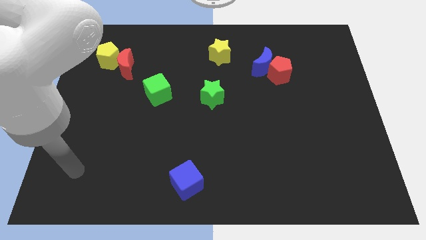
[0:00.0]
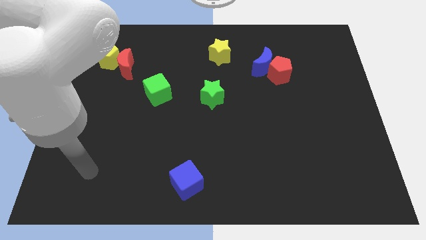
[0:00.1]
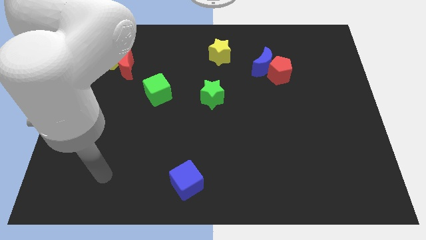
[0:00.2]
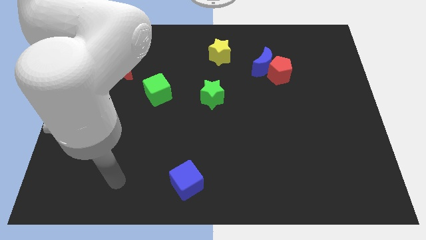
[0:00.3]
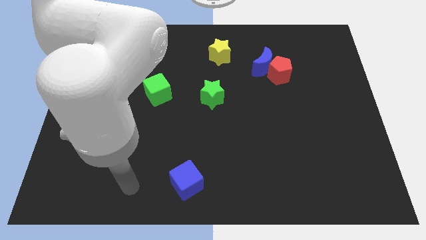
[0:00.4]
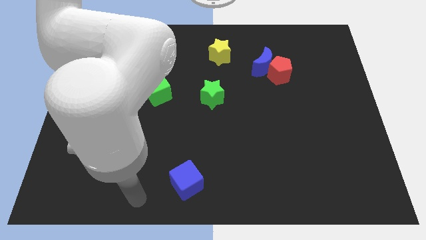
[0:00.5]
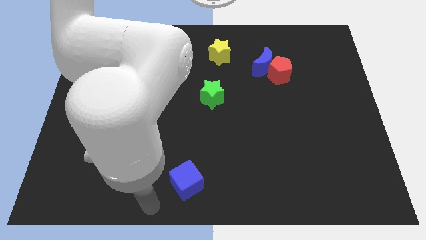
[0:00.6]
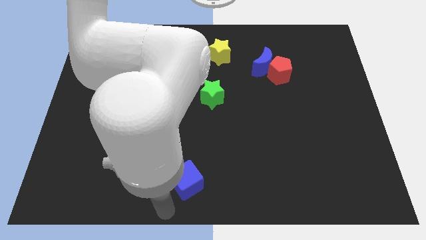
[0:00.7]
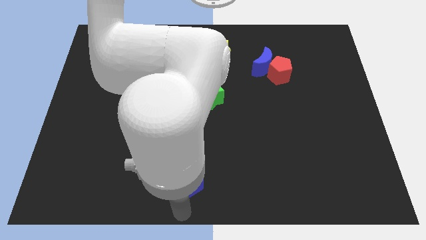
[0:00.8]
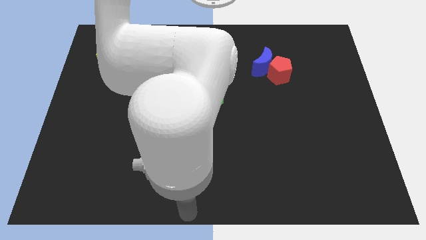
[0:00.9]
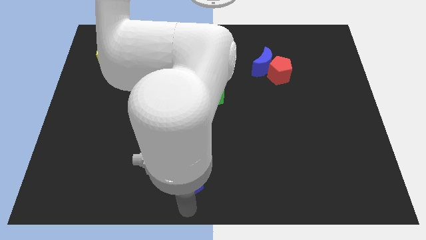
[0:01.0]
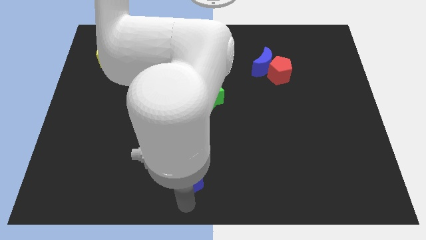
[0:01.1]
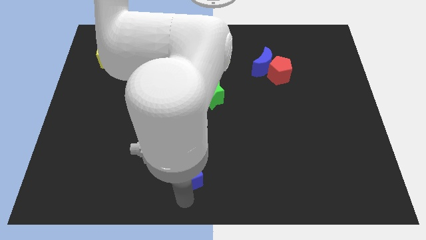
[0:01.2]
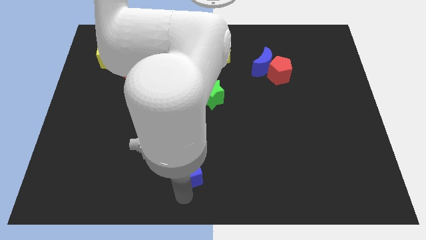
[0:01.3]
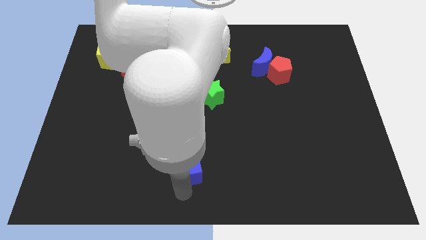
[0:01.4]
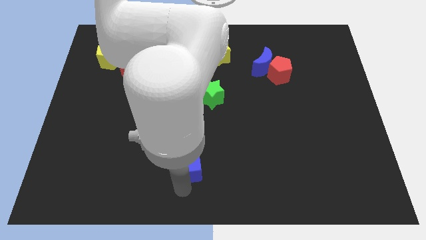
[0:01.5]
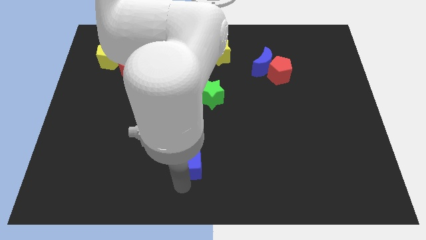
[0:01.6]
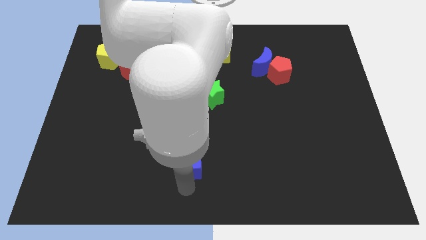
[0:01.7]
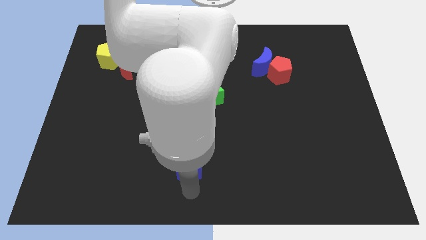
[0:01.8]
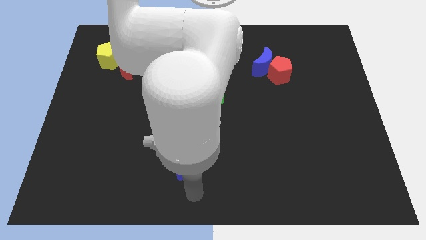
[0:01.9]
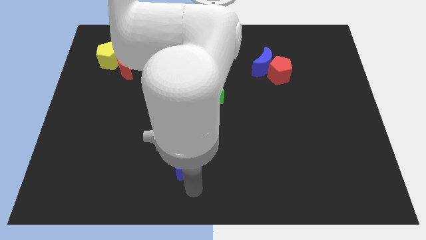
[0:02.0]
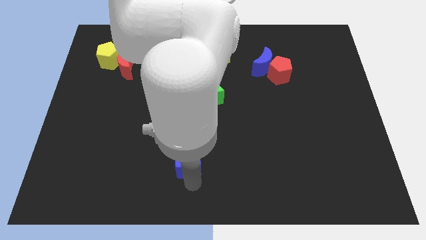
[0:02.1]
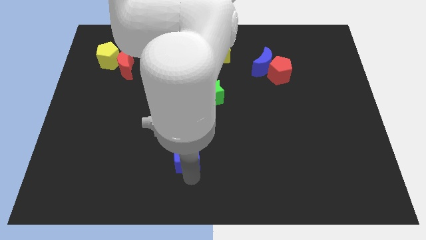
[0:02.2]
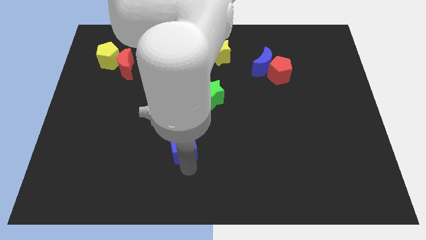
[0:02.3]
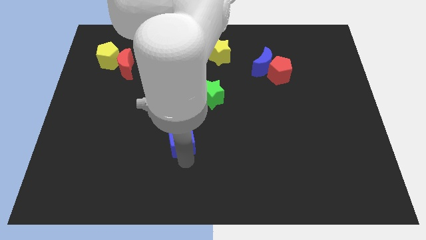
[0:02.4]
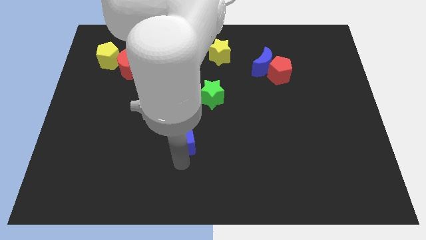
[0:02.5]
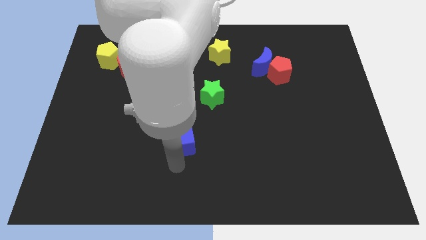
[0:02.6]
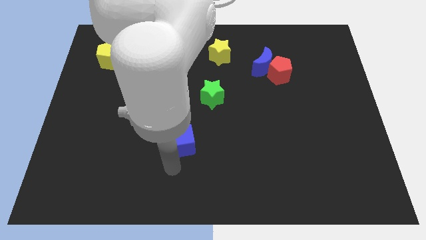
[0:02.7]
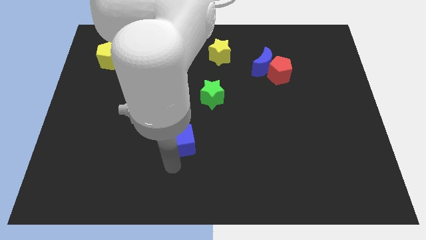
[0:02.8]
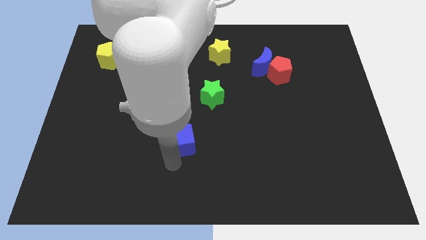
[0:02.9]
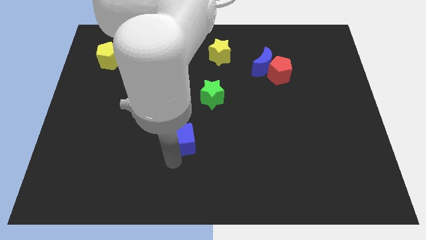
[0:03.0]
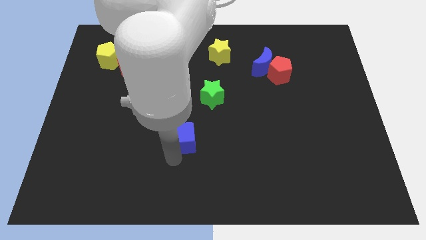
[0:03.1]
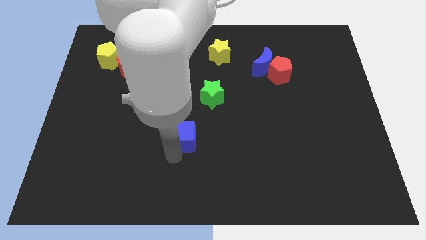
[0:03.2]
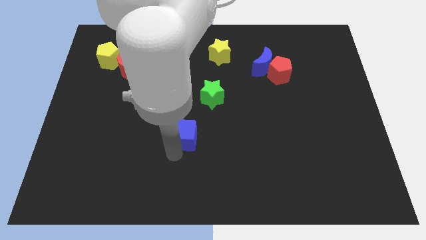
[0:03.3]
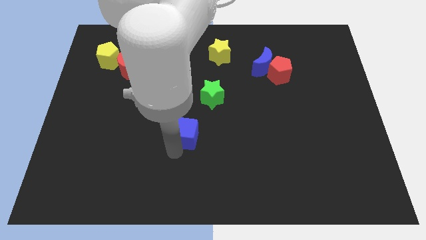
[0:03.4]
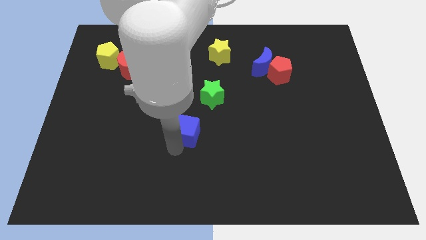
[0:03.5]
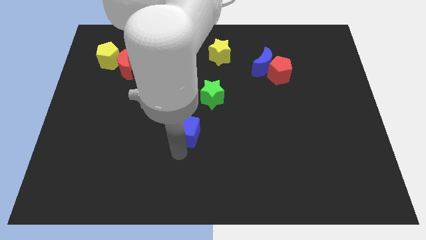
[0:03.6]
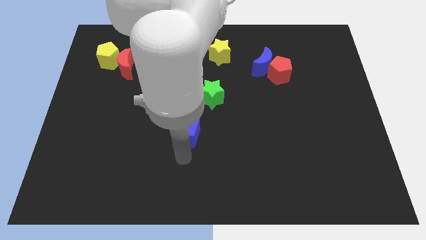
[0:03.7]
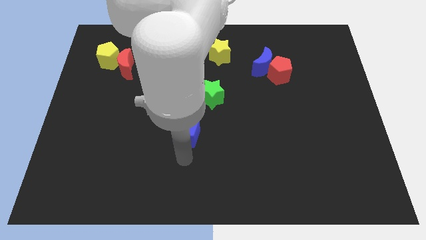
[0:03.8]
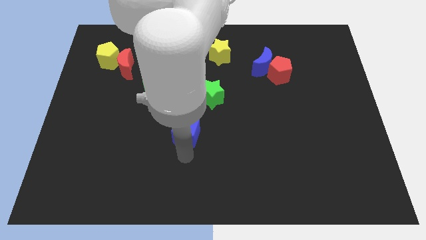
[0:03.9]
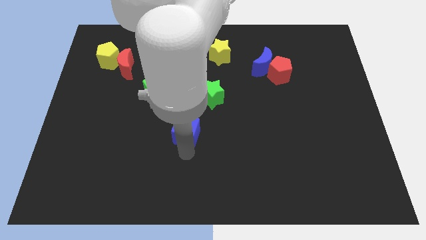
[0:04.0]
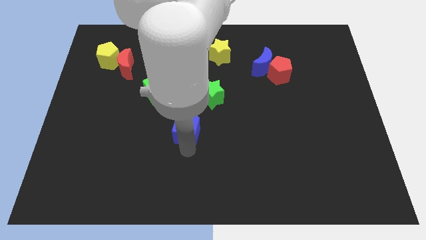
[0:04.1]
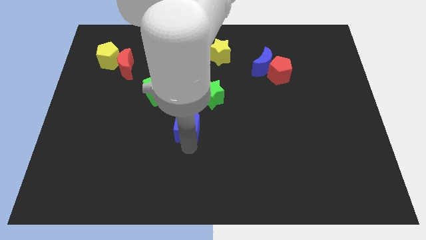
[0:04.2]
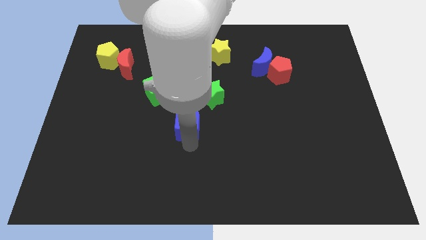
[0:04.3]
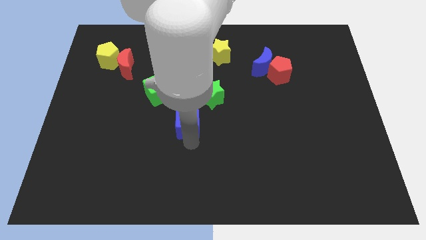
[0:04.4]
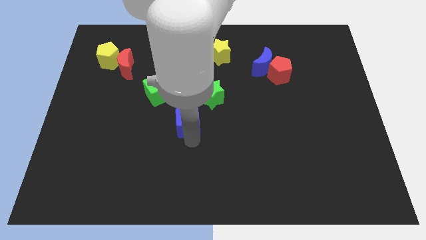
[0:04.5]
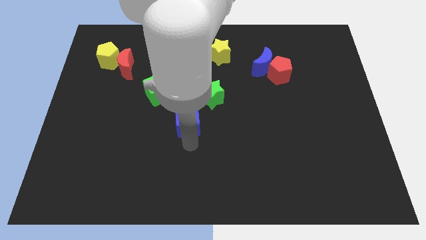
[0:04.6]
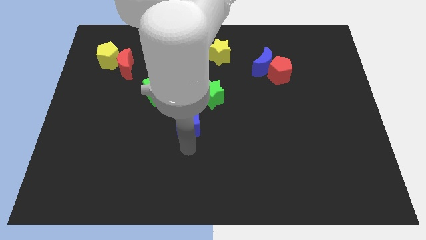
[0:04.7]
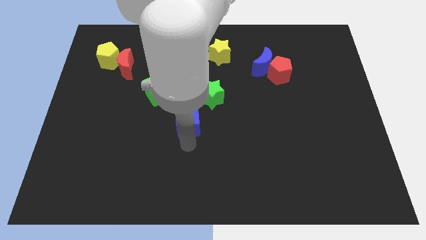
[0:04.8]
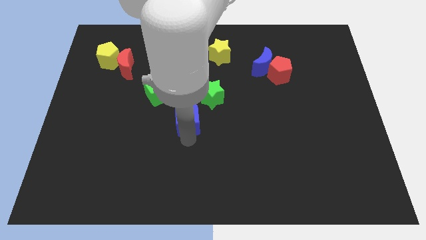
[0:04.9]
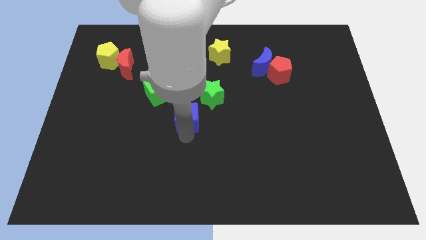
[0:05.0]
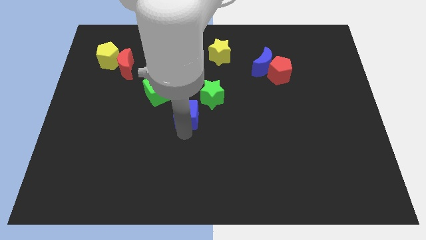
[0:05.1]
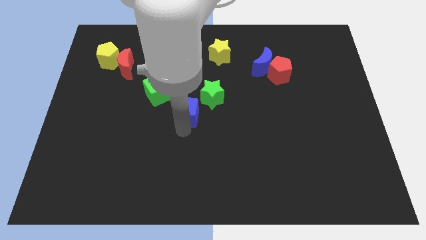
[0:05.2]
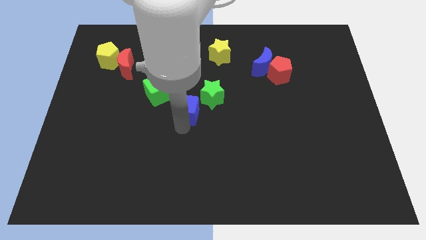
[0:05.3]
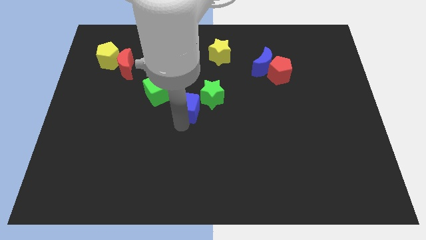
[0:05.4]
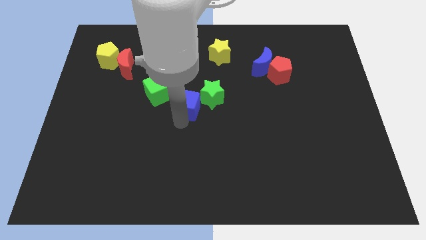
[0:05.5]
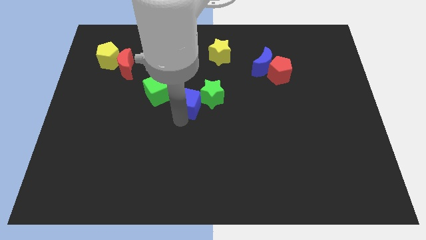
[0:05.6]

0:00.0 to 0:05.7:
slide the blue cube up

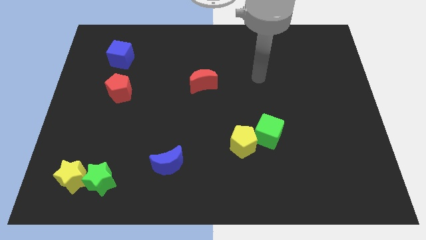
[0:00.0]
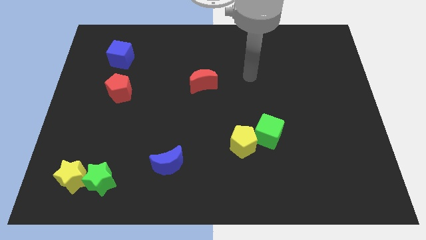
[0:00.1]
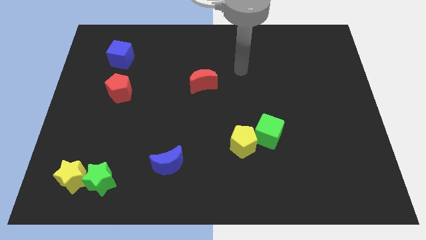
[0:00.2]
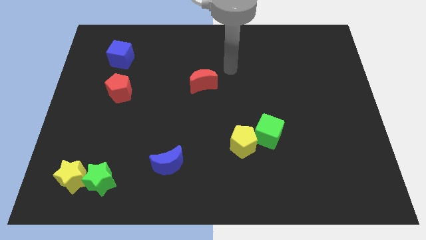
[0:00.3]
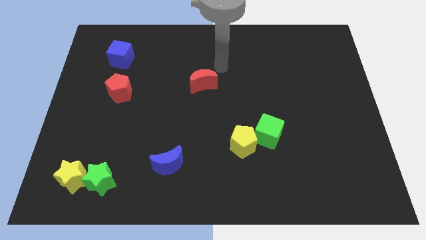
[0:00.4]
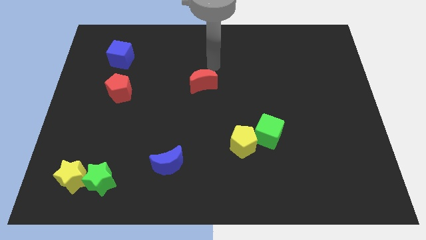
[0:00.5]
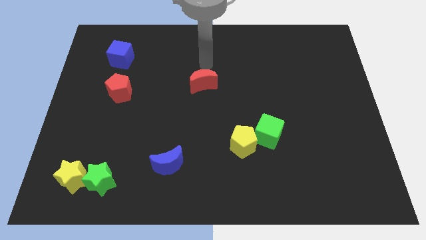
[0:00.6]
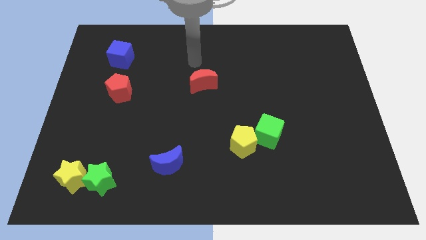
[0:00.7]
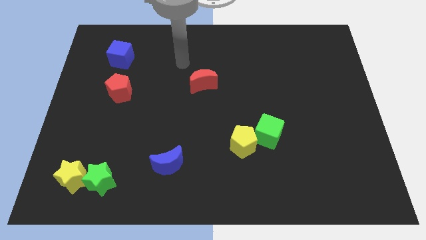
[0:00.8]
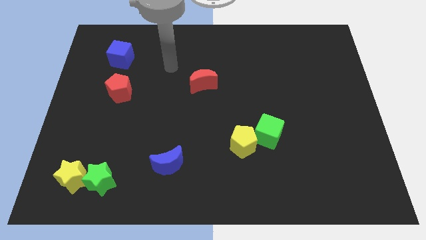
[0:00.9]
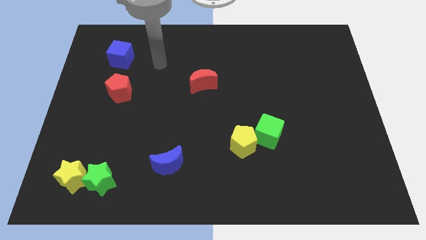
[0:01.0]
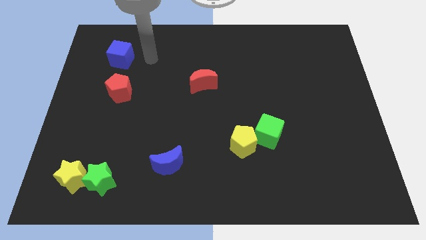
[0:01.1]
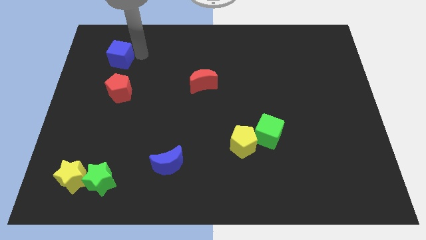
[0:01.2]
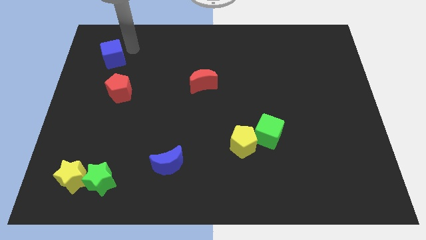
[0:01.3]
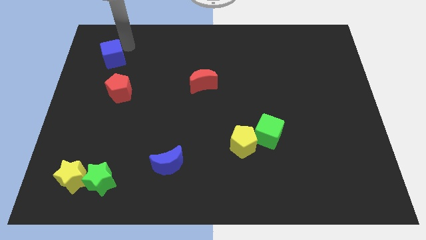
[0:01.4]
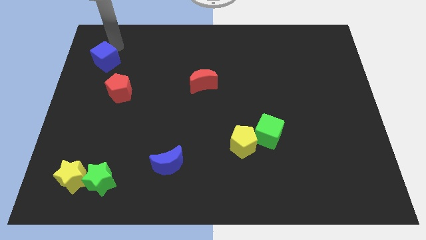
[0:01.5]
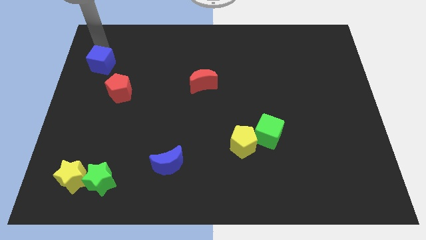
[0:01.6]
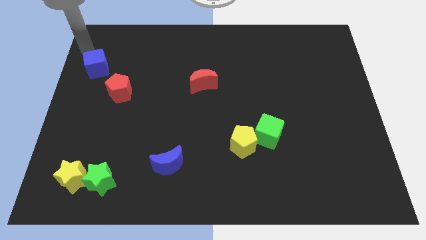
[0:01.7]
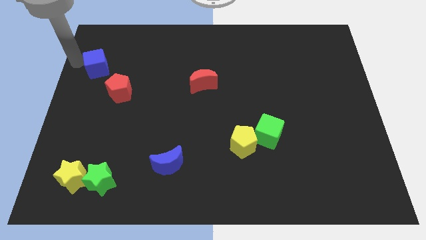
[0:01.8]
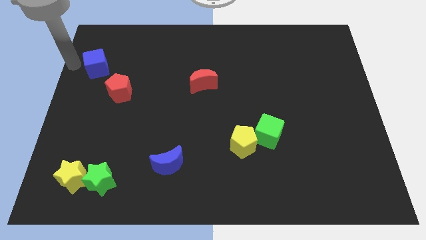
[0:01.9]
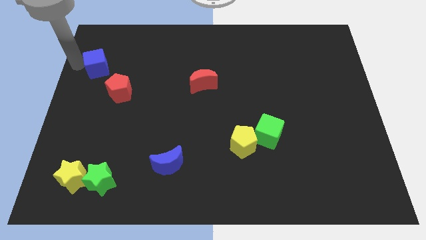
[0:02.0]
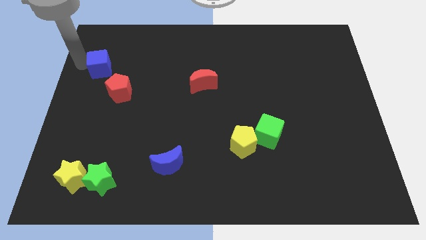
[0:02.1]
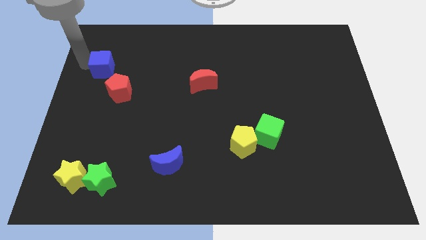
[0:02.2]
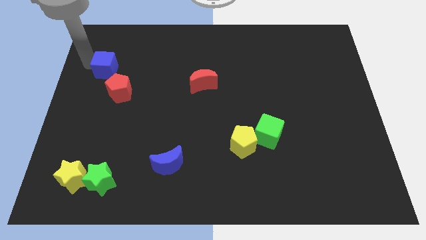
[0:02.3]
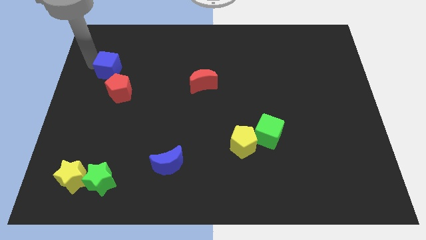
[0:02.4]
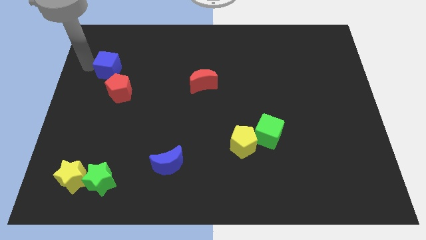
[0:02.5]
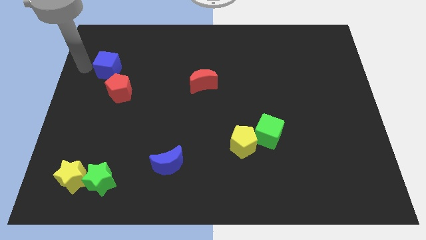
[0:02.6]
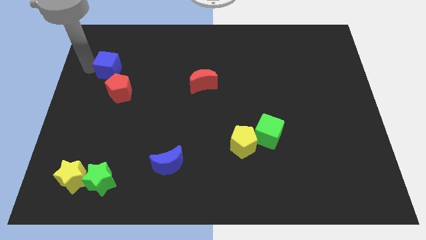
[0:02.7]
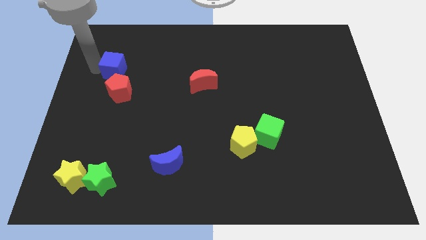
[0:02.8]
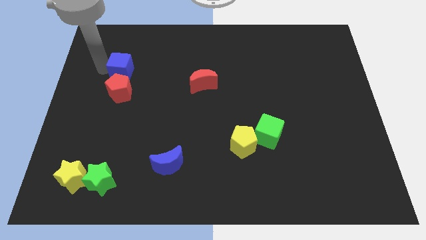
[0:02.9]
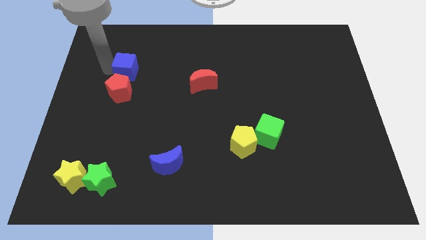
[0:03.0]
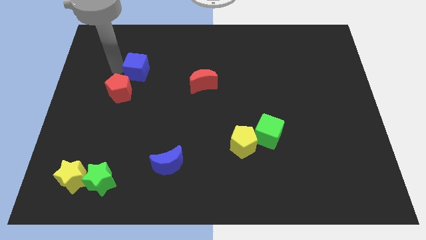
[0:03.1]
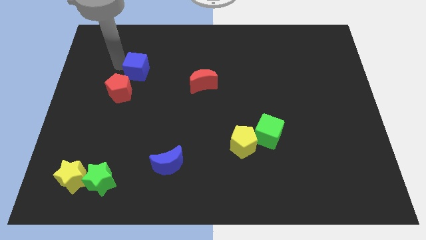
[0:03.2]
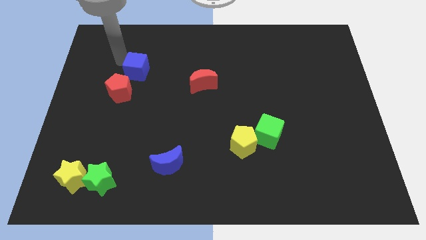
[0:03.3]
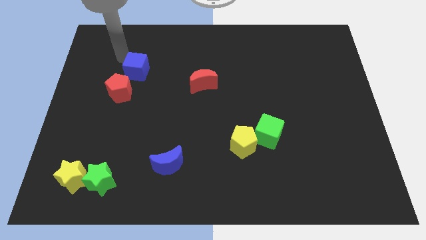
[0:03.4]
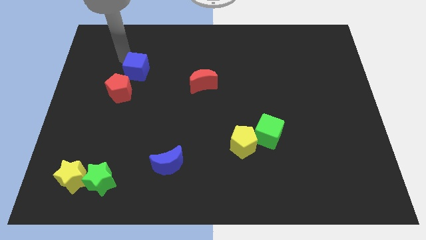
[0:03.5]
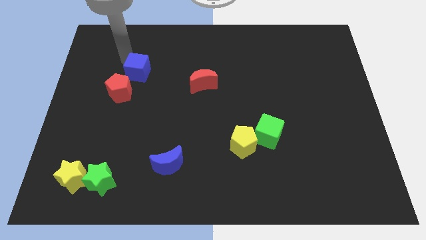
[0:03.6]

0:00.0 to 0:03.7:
slide the blue cube down and to the right diagonally a bit
